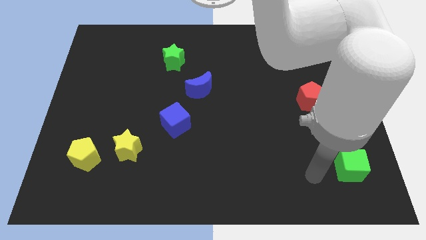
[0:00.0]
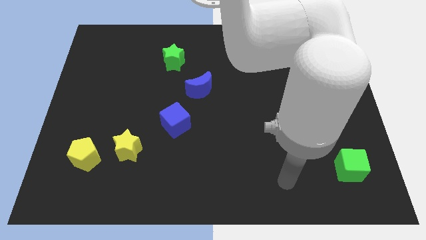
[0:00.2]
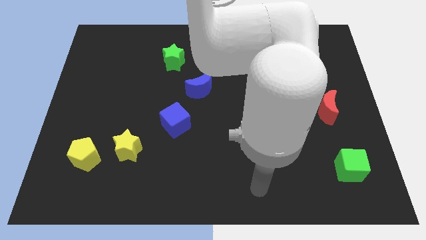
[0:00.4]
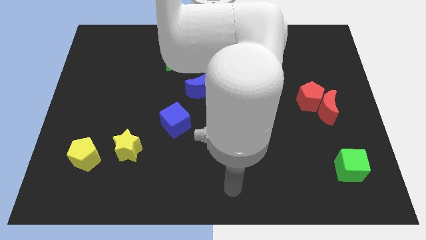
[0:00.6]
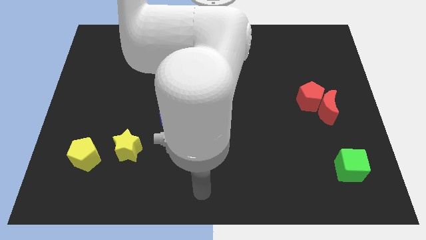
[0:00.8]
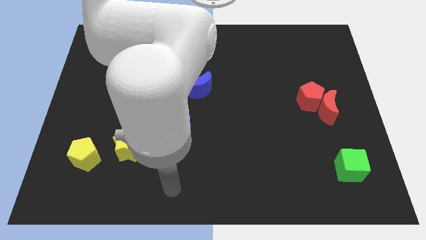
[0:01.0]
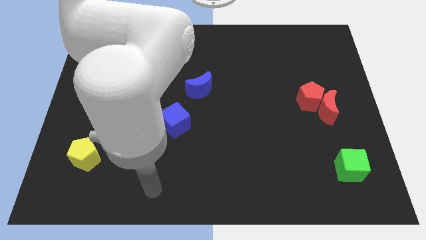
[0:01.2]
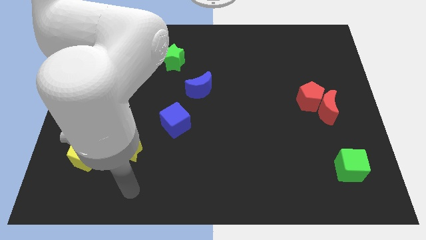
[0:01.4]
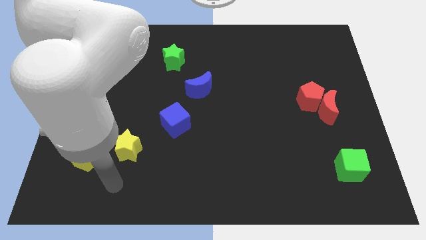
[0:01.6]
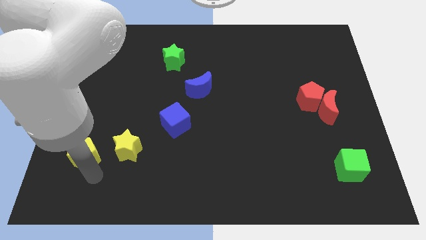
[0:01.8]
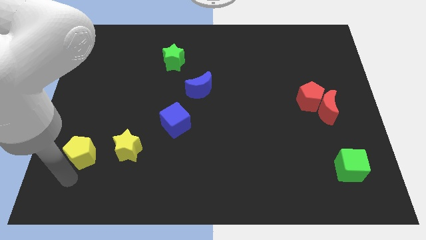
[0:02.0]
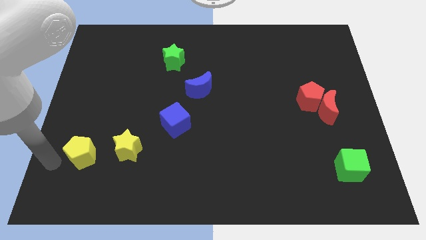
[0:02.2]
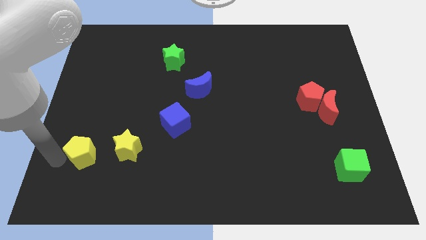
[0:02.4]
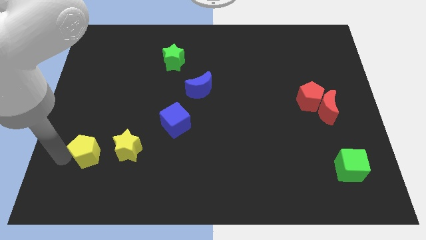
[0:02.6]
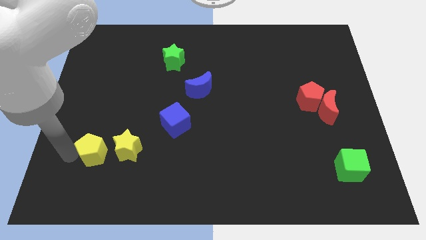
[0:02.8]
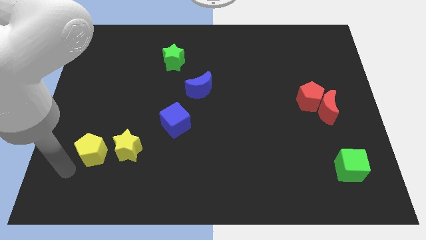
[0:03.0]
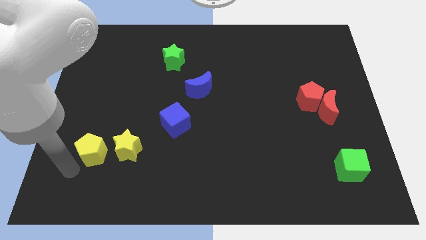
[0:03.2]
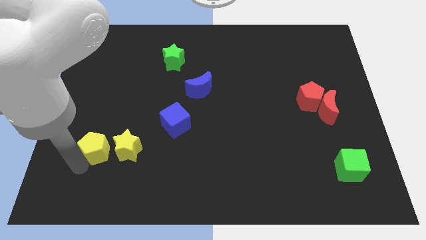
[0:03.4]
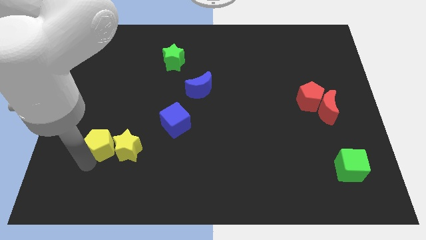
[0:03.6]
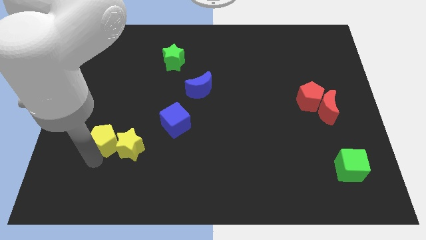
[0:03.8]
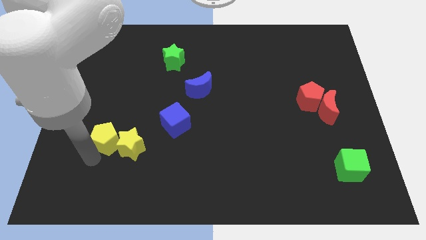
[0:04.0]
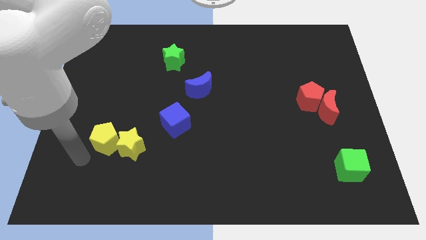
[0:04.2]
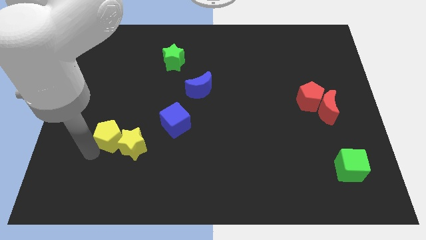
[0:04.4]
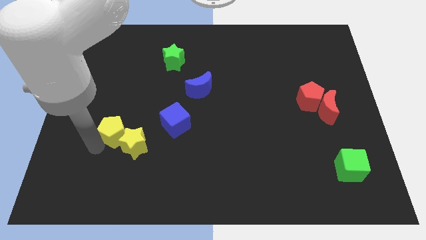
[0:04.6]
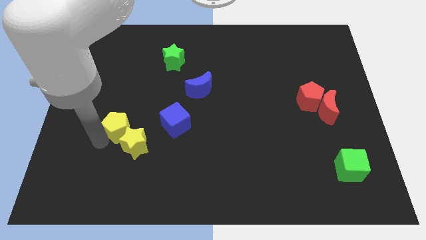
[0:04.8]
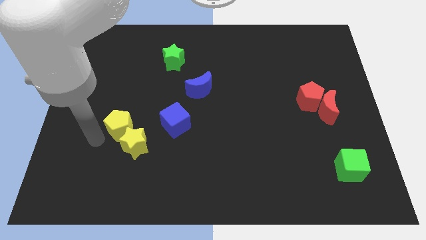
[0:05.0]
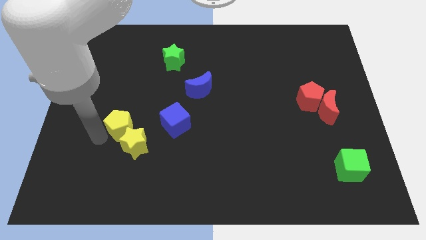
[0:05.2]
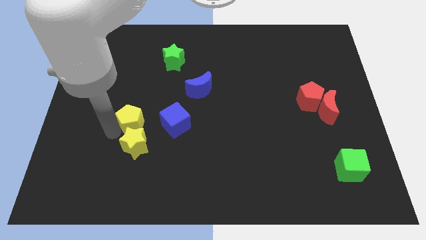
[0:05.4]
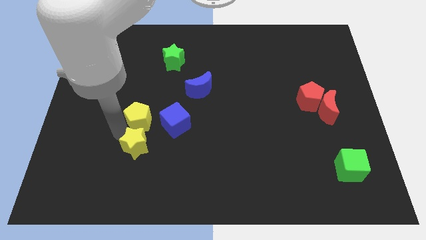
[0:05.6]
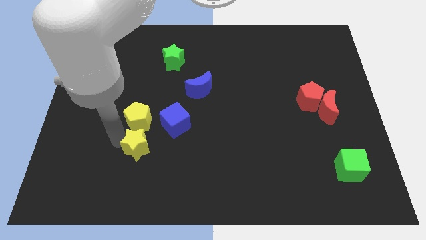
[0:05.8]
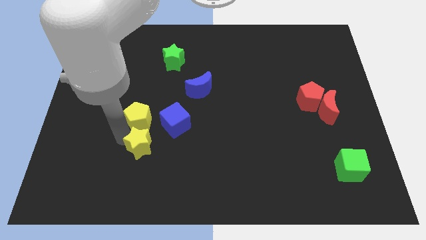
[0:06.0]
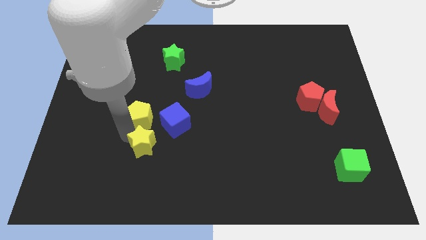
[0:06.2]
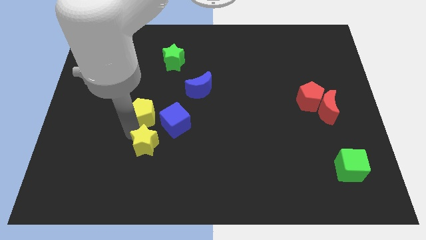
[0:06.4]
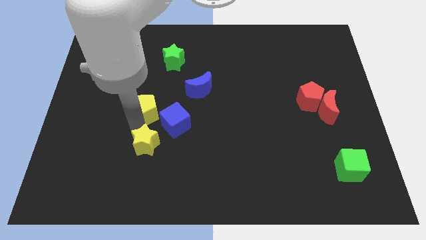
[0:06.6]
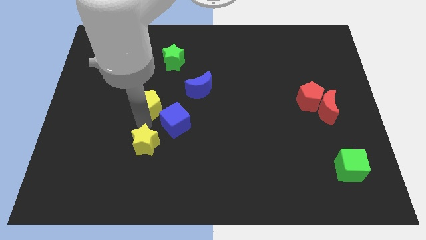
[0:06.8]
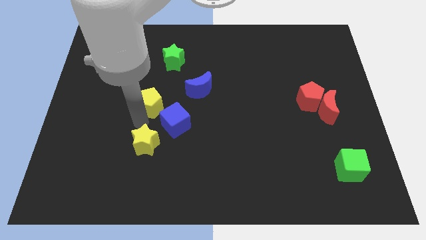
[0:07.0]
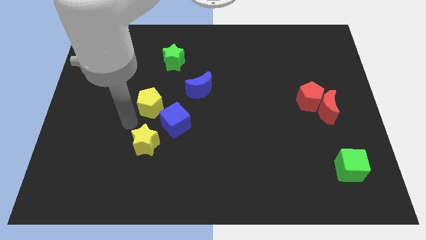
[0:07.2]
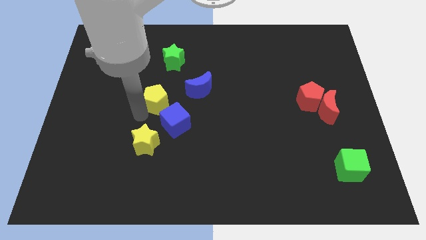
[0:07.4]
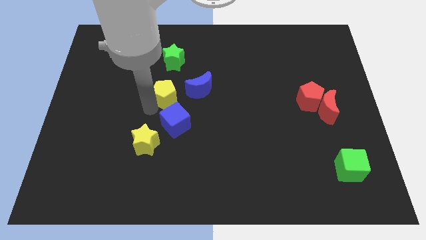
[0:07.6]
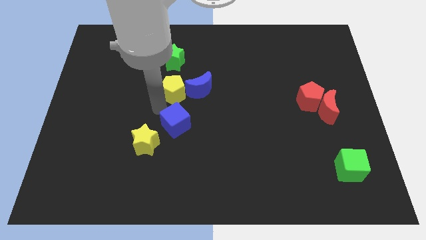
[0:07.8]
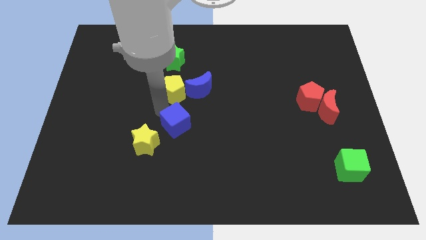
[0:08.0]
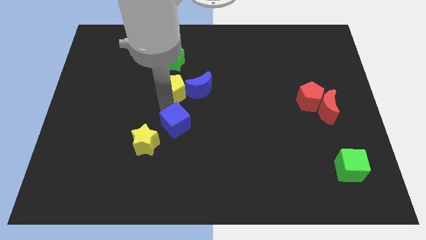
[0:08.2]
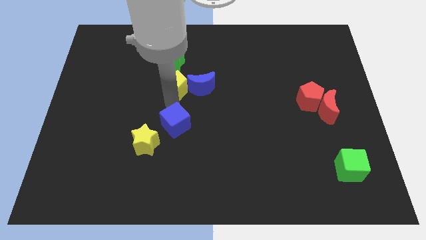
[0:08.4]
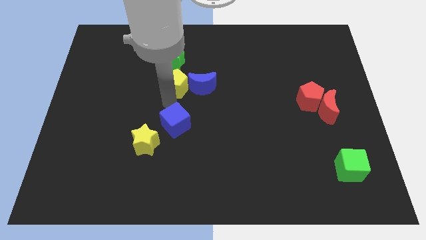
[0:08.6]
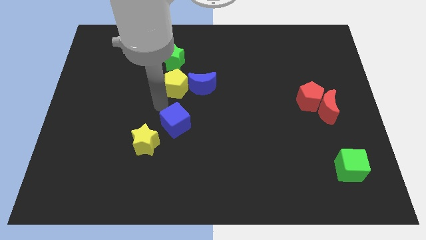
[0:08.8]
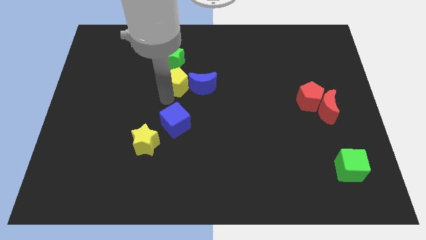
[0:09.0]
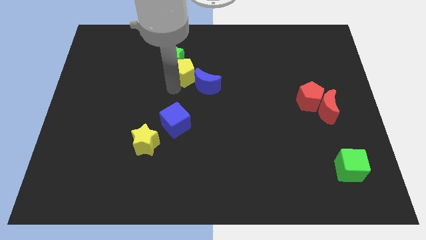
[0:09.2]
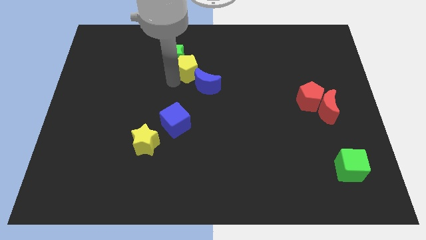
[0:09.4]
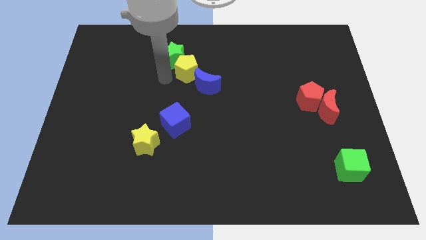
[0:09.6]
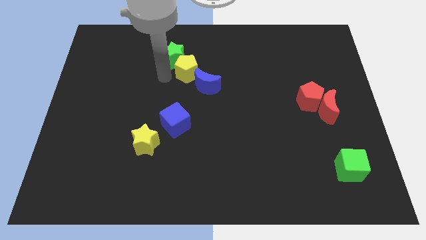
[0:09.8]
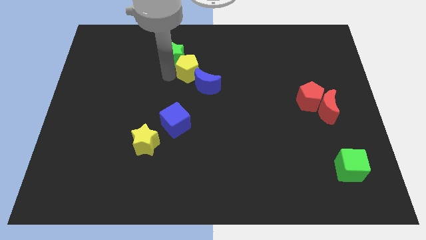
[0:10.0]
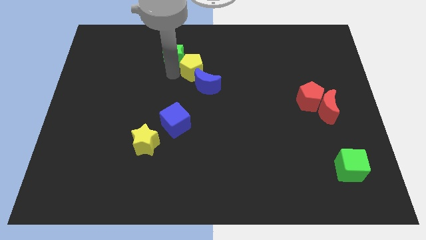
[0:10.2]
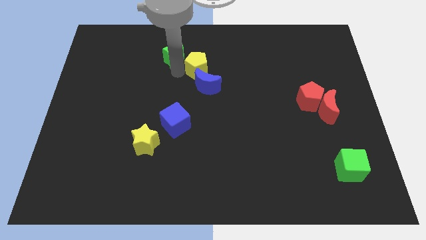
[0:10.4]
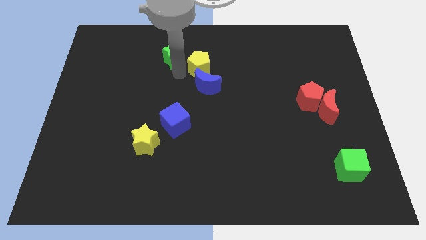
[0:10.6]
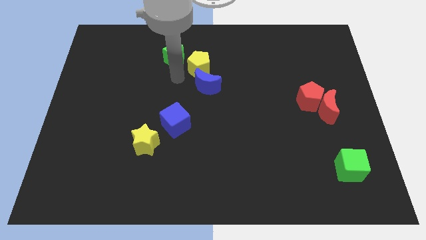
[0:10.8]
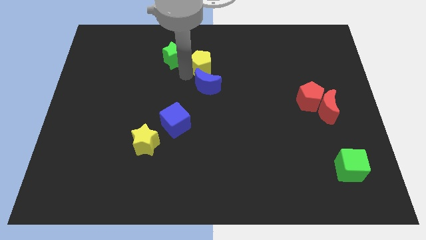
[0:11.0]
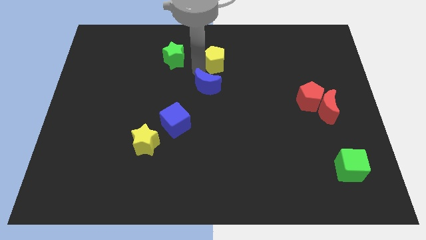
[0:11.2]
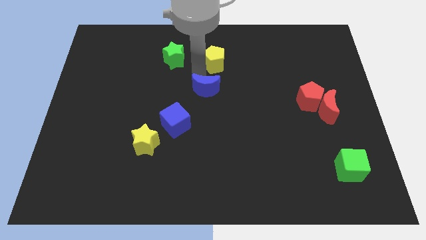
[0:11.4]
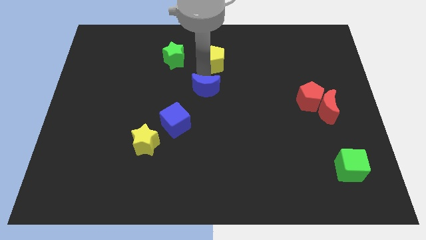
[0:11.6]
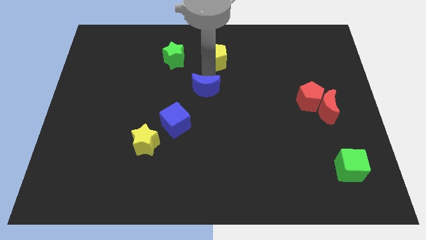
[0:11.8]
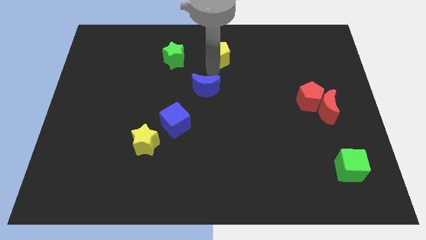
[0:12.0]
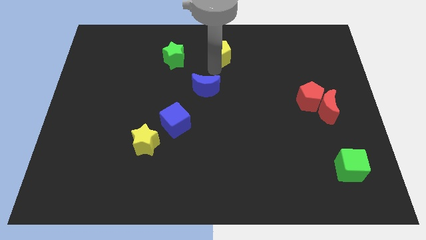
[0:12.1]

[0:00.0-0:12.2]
put the yellow pentagon to the top
